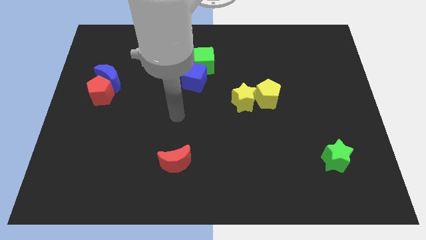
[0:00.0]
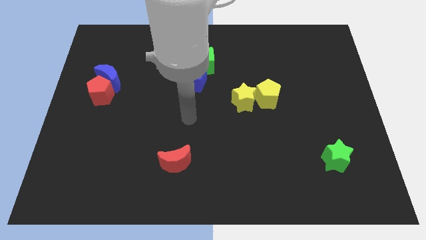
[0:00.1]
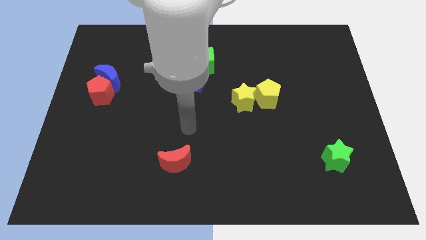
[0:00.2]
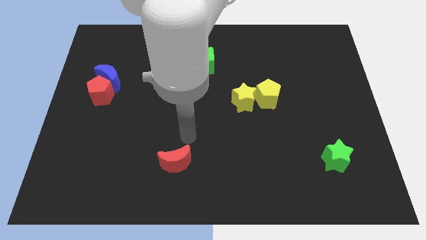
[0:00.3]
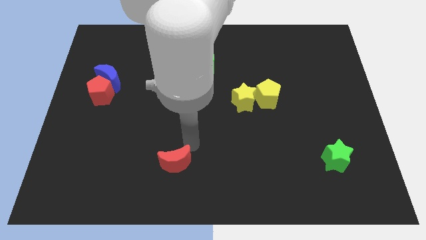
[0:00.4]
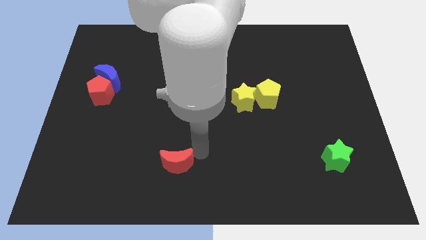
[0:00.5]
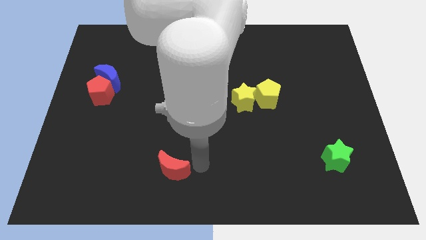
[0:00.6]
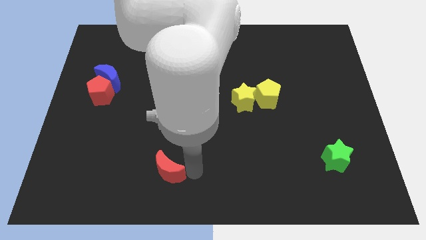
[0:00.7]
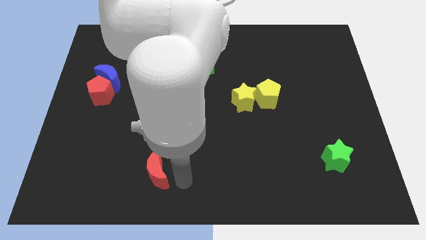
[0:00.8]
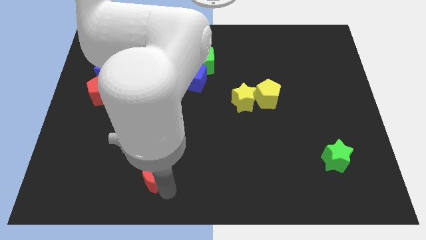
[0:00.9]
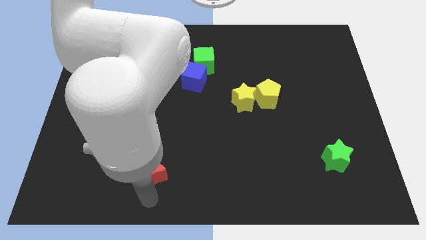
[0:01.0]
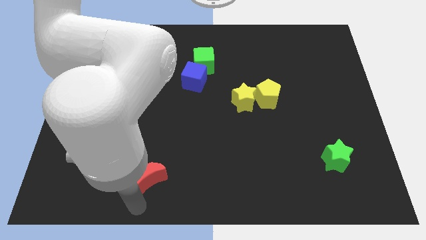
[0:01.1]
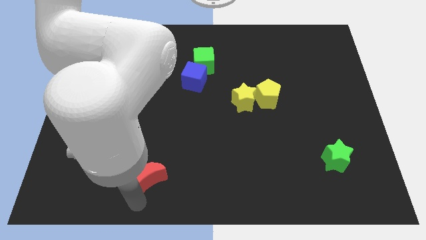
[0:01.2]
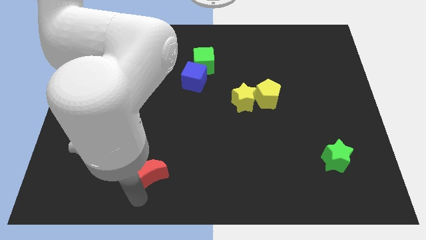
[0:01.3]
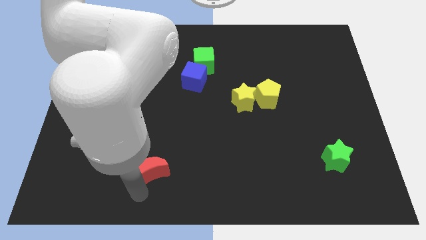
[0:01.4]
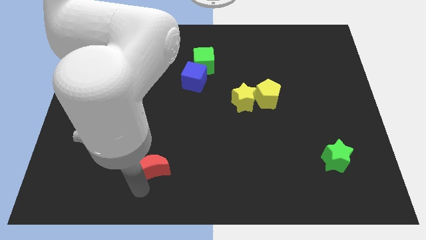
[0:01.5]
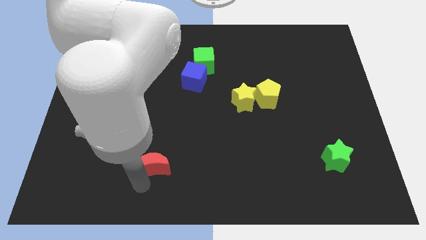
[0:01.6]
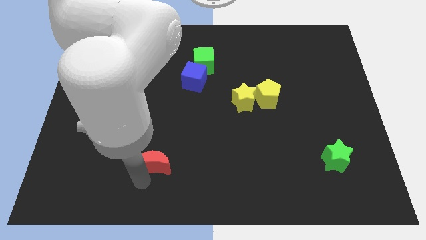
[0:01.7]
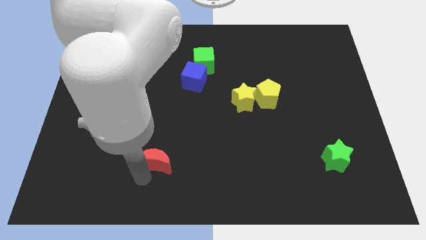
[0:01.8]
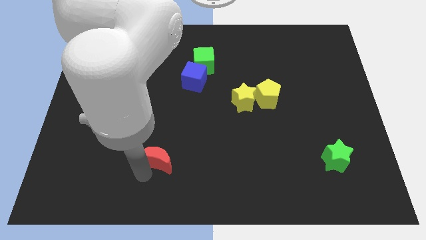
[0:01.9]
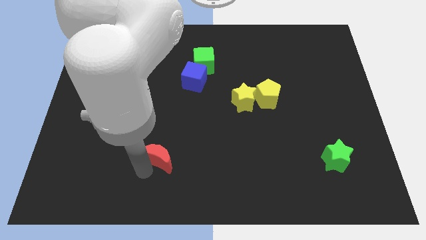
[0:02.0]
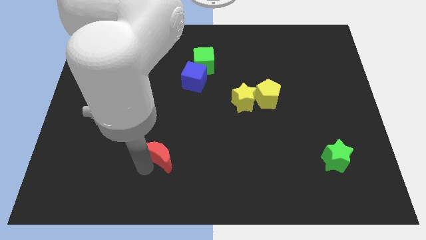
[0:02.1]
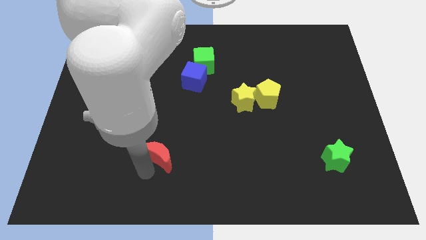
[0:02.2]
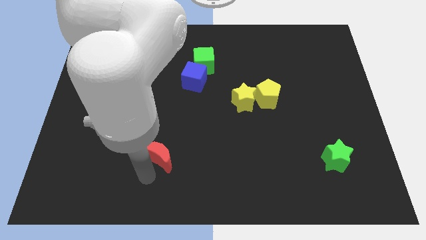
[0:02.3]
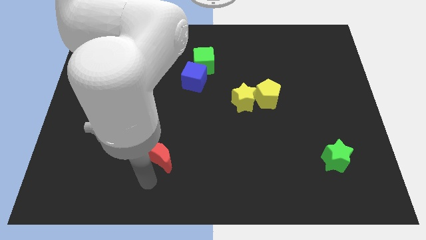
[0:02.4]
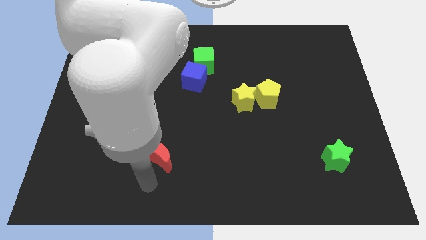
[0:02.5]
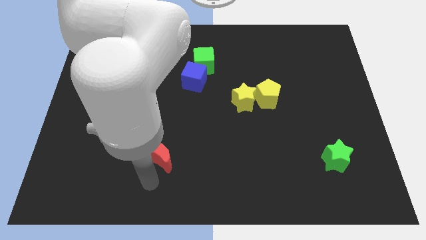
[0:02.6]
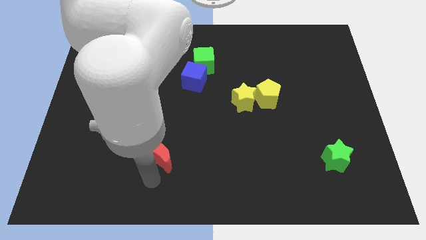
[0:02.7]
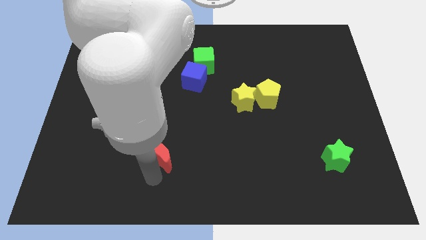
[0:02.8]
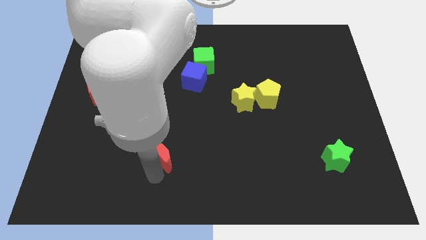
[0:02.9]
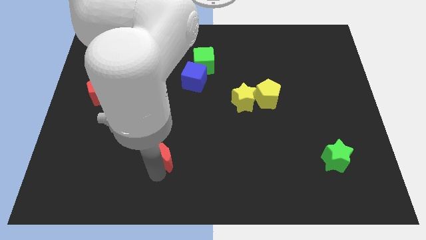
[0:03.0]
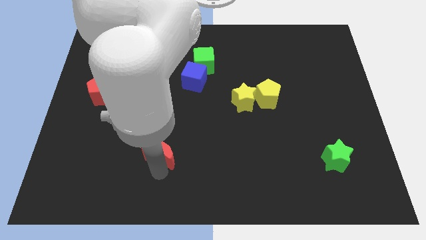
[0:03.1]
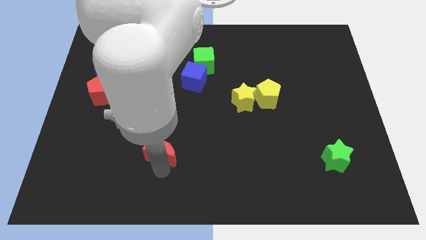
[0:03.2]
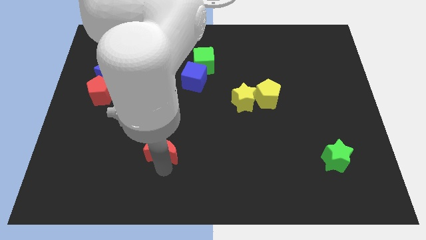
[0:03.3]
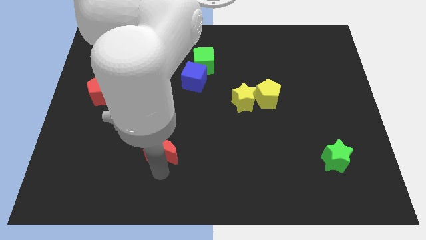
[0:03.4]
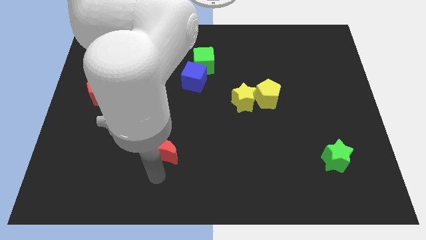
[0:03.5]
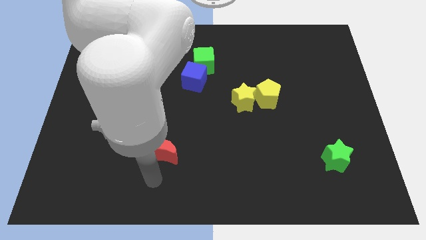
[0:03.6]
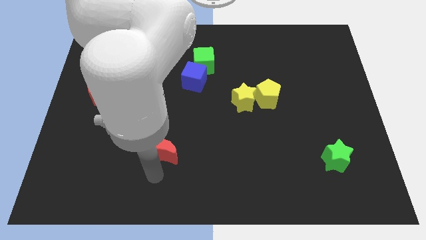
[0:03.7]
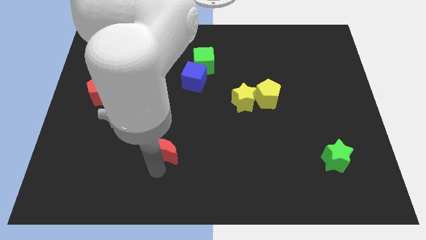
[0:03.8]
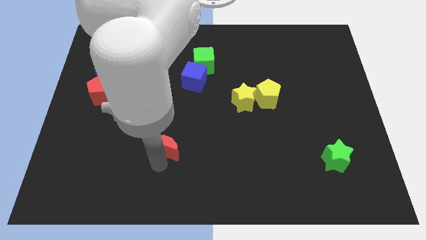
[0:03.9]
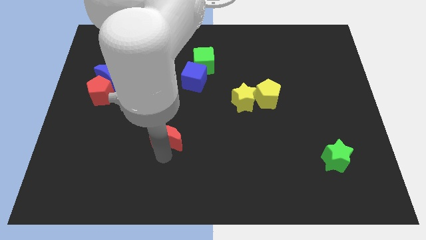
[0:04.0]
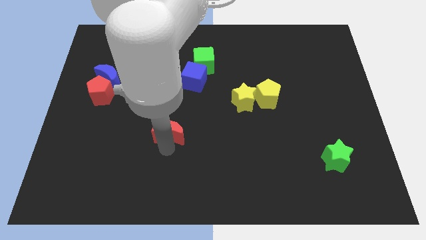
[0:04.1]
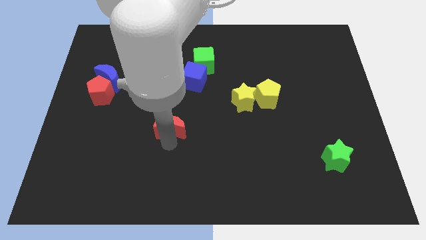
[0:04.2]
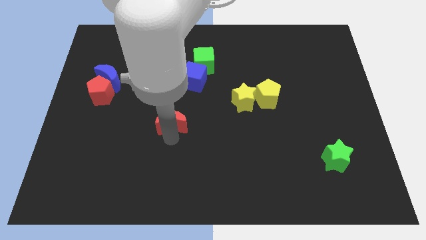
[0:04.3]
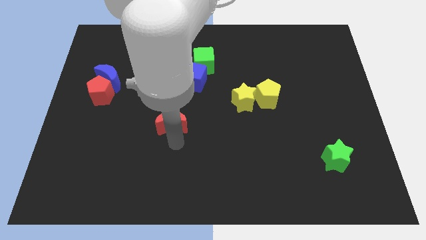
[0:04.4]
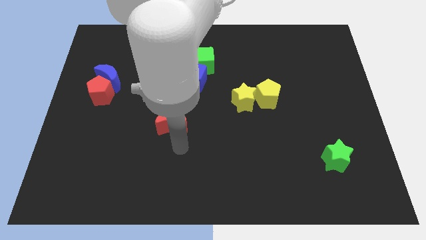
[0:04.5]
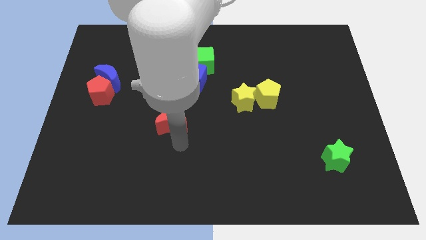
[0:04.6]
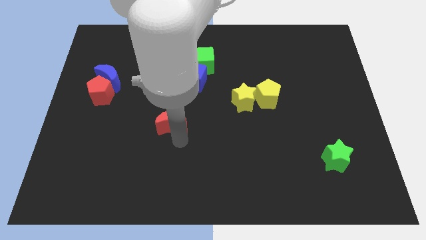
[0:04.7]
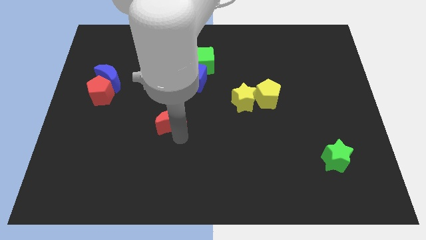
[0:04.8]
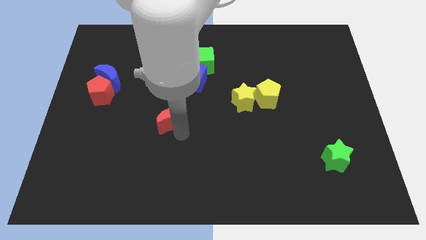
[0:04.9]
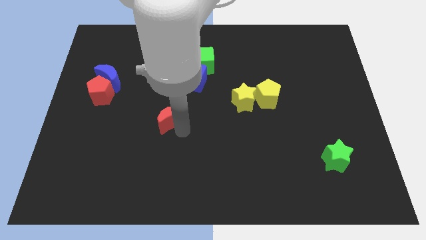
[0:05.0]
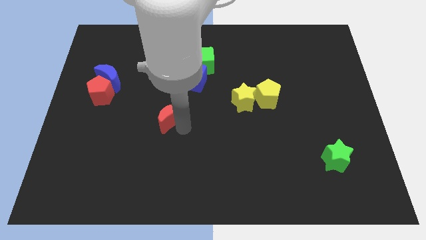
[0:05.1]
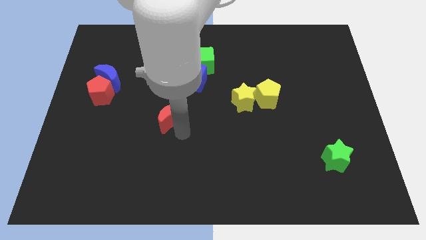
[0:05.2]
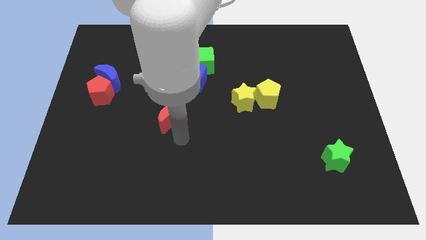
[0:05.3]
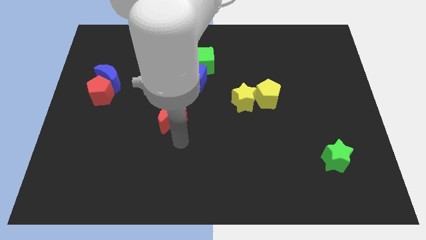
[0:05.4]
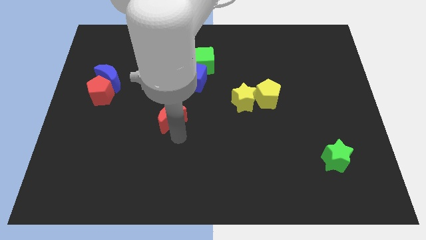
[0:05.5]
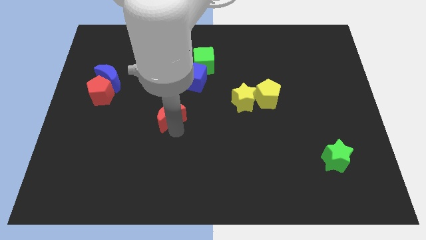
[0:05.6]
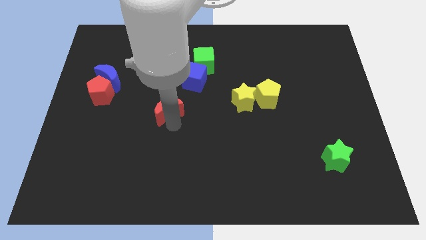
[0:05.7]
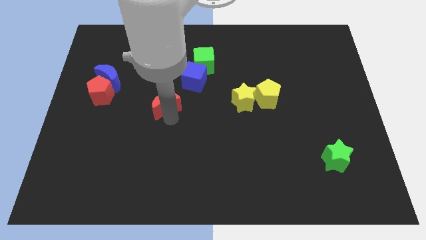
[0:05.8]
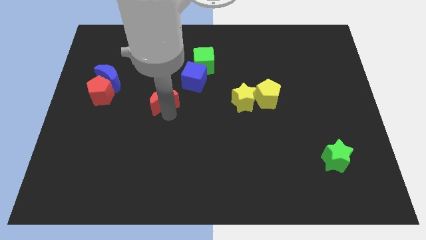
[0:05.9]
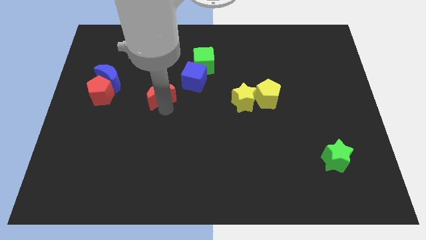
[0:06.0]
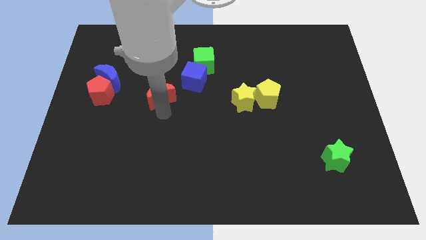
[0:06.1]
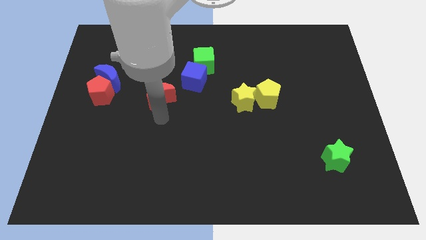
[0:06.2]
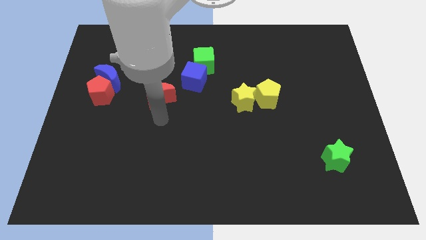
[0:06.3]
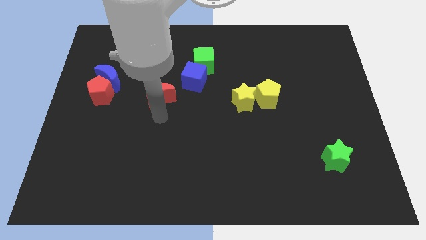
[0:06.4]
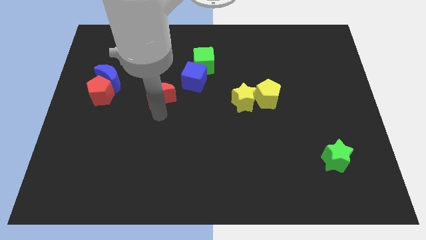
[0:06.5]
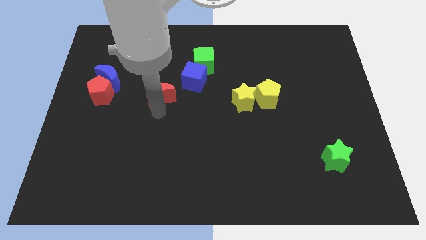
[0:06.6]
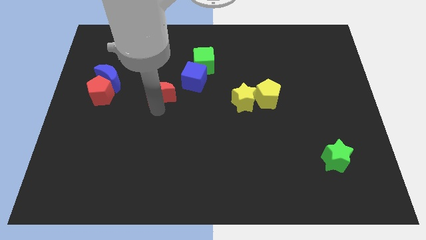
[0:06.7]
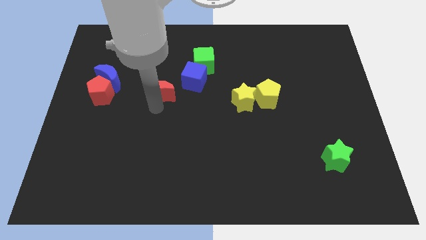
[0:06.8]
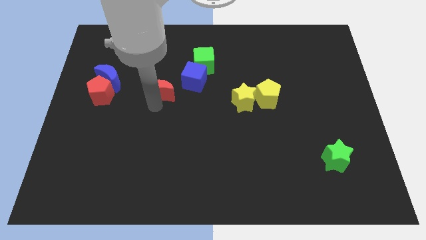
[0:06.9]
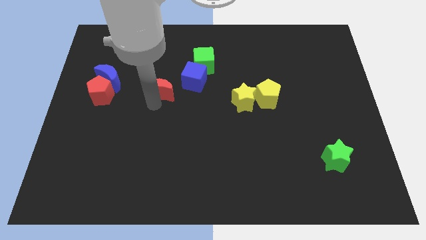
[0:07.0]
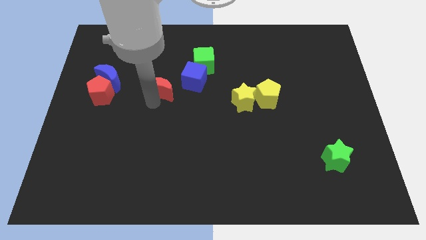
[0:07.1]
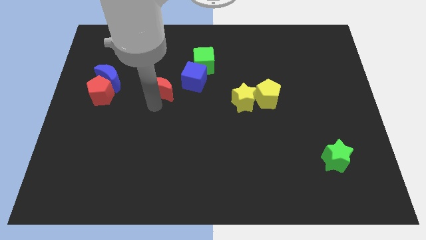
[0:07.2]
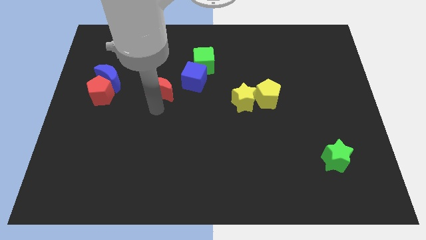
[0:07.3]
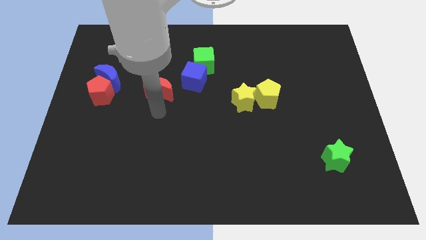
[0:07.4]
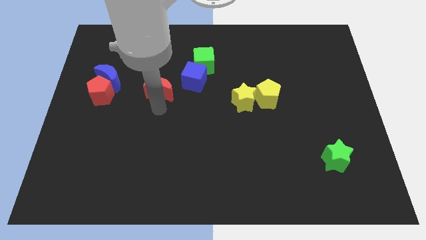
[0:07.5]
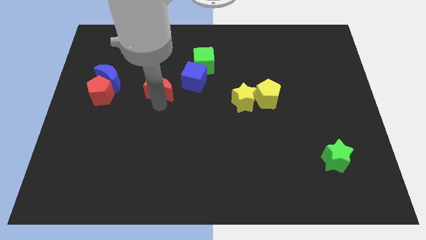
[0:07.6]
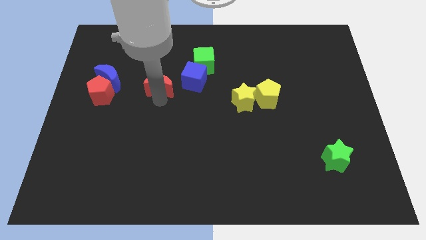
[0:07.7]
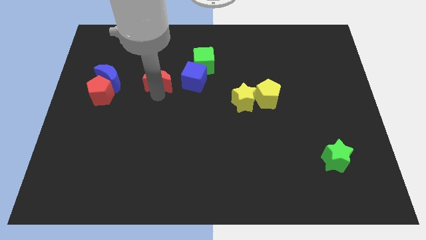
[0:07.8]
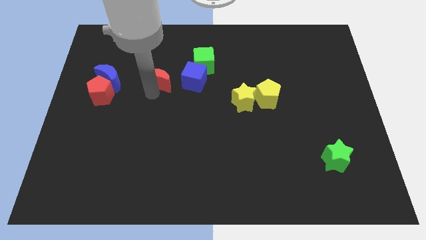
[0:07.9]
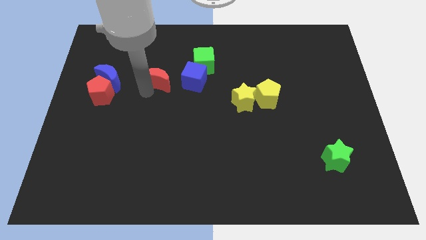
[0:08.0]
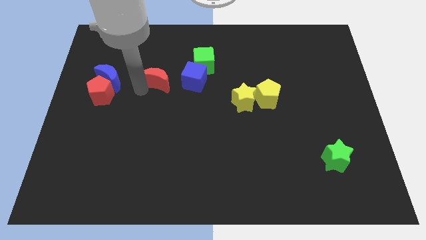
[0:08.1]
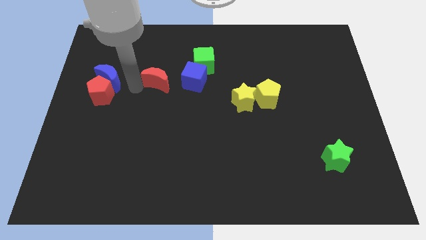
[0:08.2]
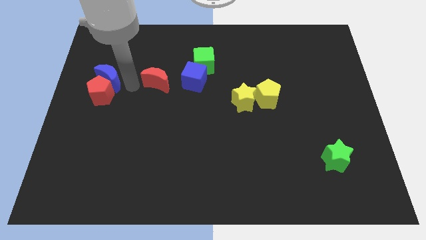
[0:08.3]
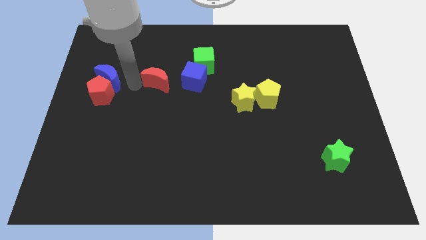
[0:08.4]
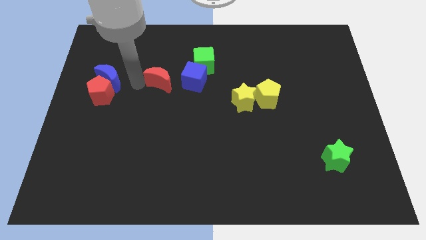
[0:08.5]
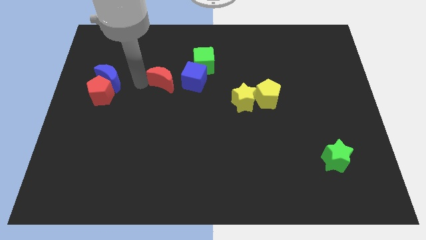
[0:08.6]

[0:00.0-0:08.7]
move the red moon diagonally down and to the left of the green cube
